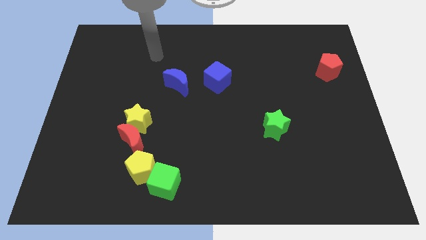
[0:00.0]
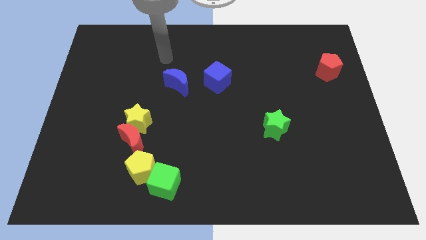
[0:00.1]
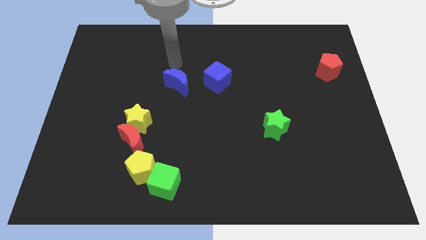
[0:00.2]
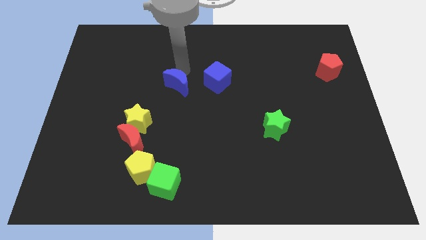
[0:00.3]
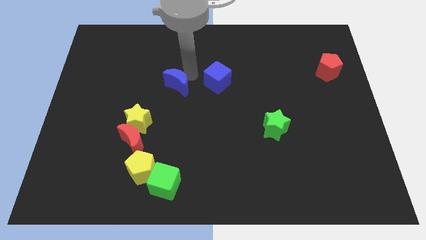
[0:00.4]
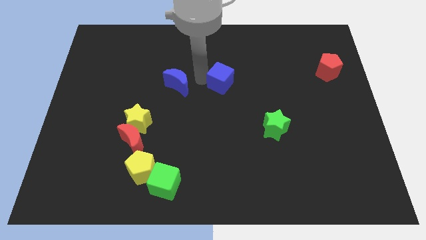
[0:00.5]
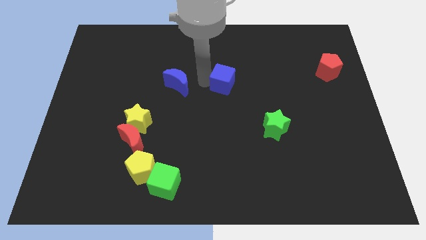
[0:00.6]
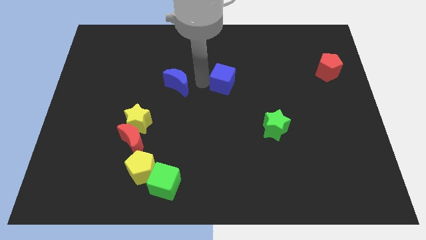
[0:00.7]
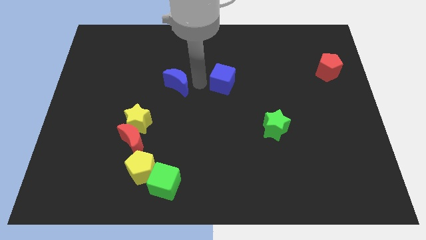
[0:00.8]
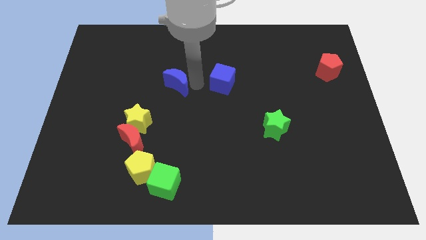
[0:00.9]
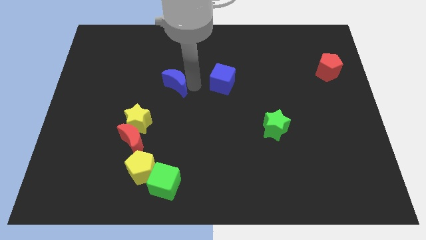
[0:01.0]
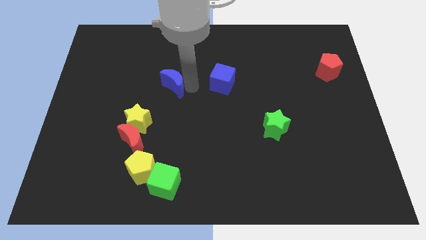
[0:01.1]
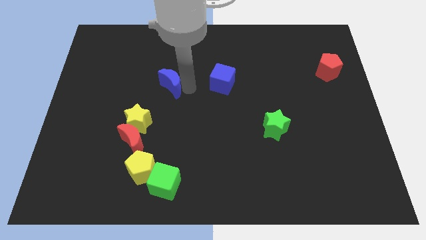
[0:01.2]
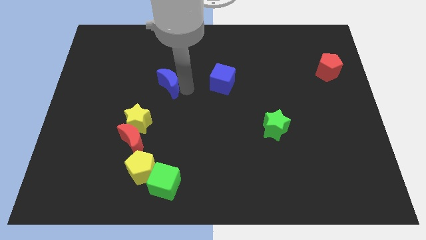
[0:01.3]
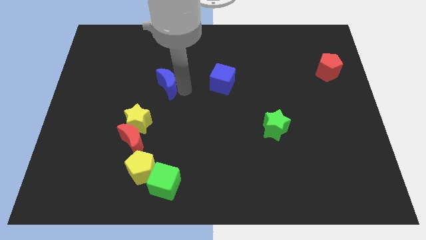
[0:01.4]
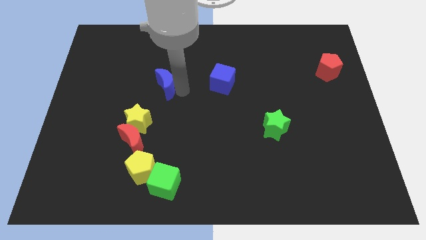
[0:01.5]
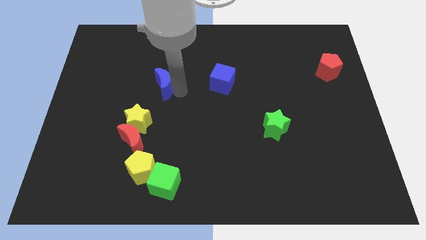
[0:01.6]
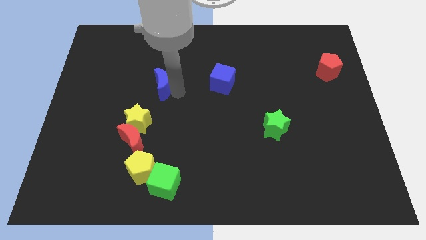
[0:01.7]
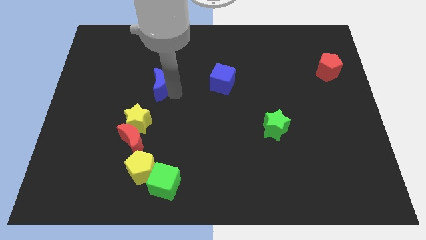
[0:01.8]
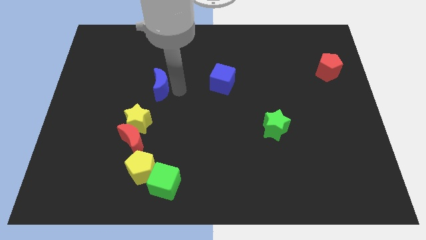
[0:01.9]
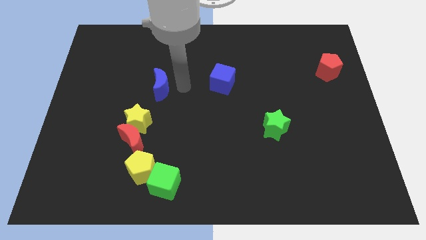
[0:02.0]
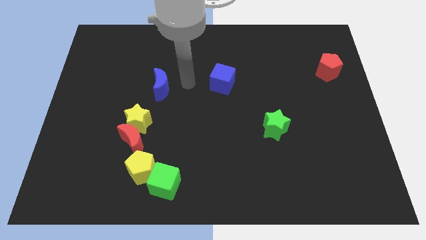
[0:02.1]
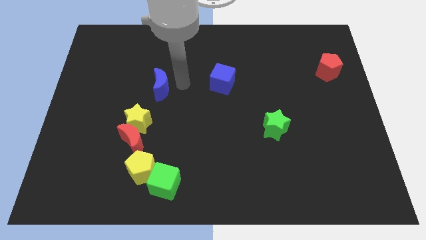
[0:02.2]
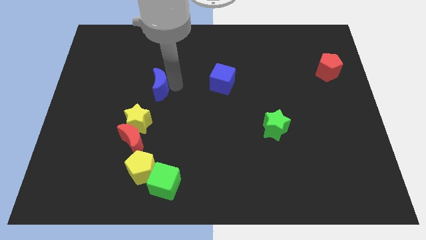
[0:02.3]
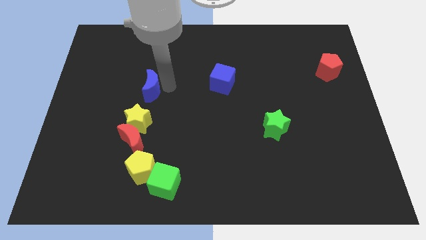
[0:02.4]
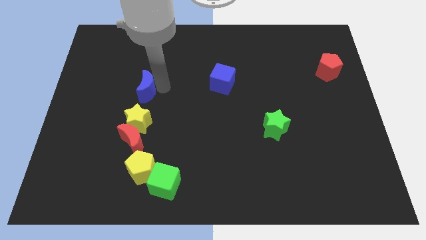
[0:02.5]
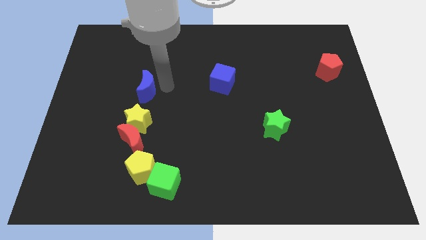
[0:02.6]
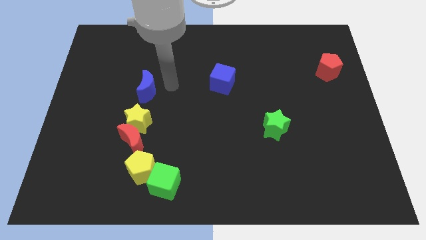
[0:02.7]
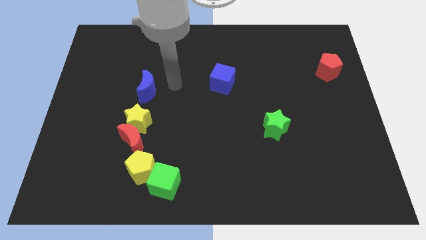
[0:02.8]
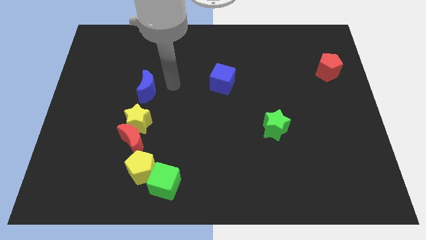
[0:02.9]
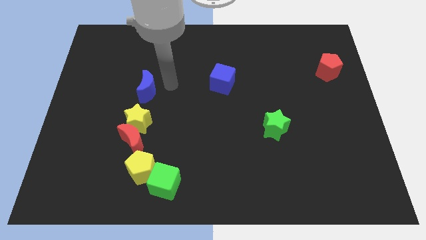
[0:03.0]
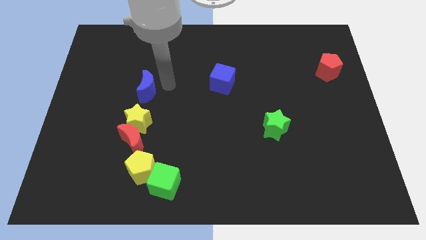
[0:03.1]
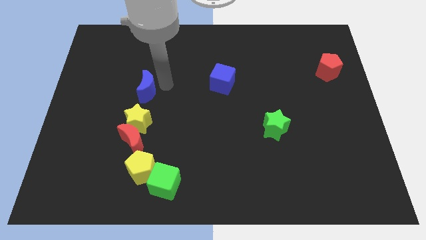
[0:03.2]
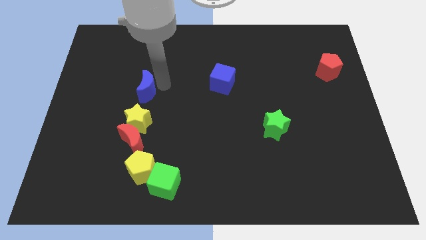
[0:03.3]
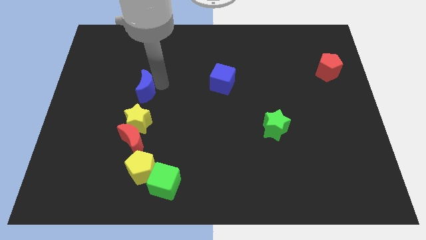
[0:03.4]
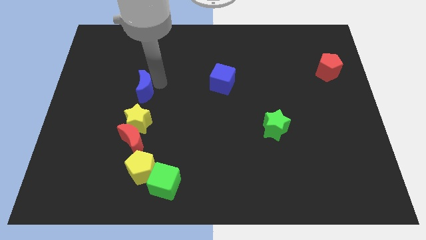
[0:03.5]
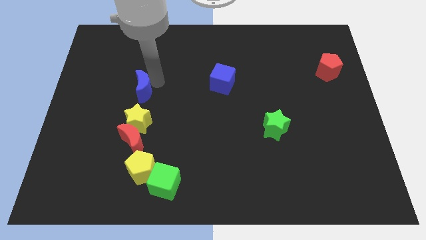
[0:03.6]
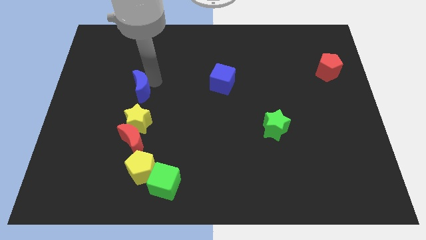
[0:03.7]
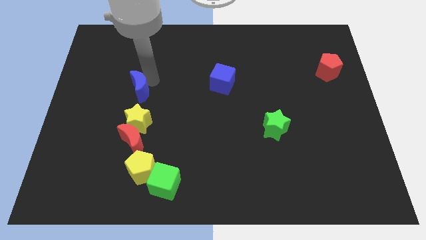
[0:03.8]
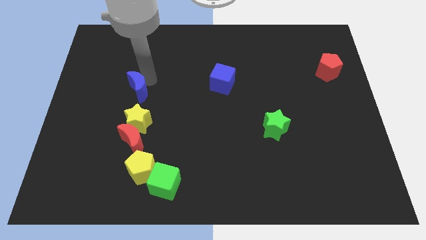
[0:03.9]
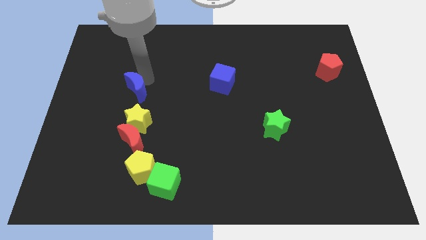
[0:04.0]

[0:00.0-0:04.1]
slide the blue moon slightly downwards and to the left diagonally

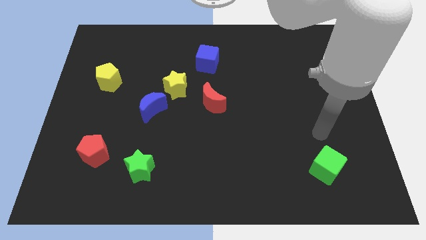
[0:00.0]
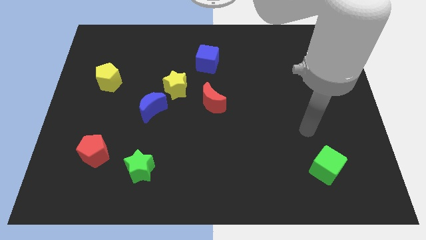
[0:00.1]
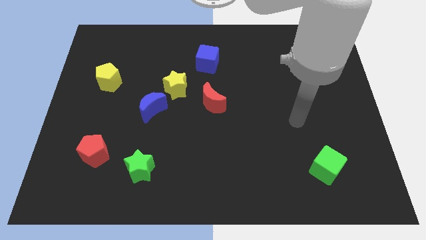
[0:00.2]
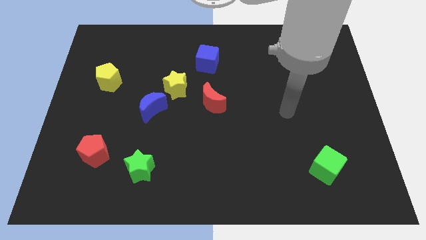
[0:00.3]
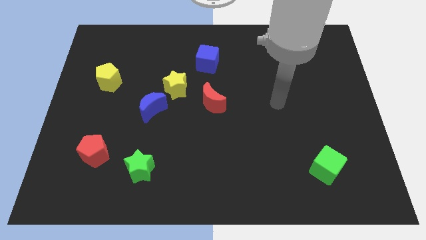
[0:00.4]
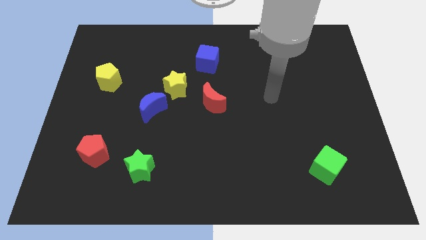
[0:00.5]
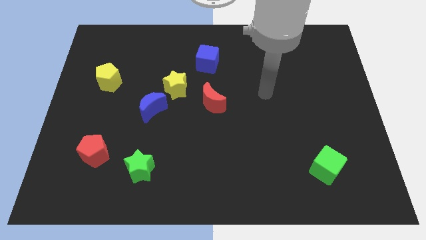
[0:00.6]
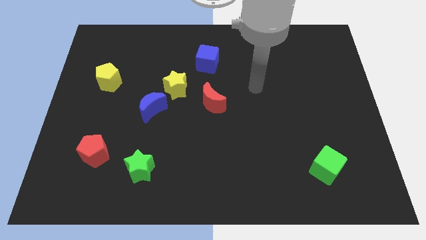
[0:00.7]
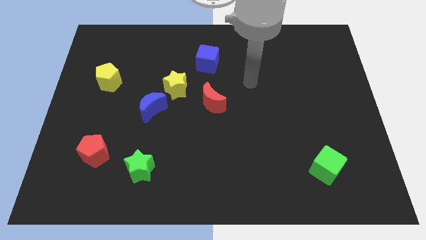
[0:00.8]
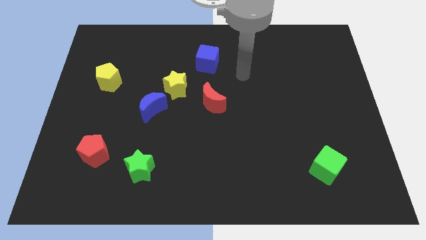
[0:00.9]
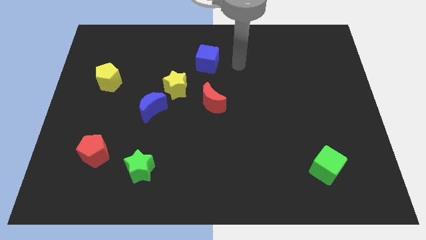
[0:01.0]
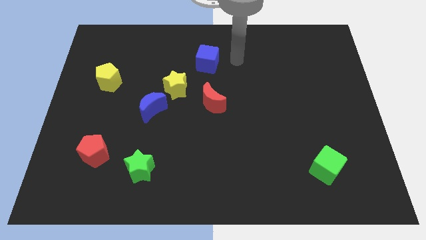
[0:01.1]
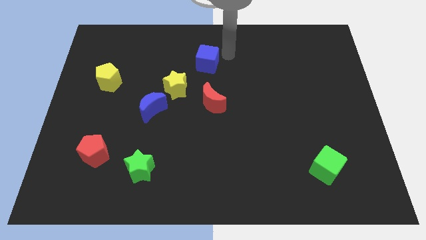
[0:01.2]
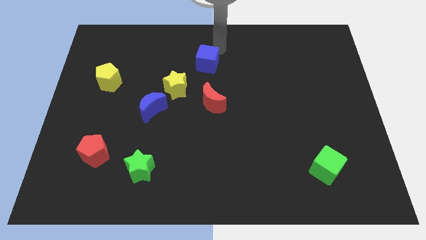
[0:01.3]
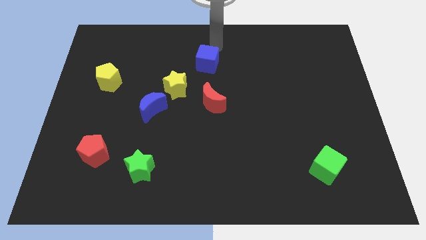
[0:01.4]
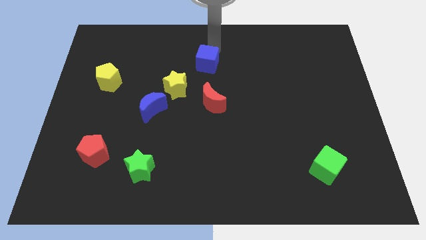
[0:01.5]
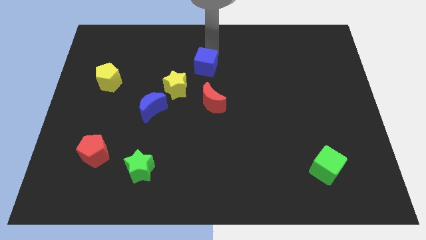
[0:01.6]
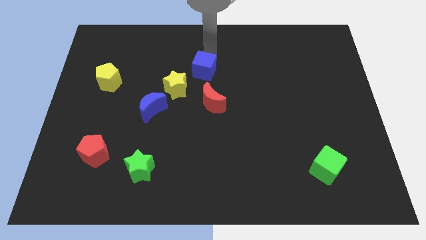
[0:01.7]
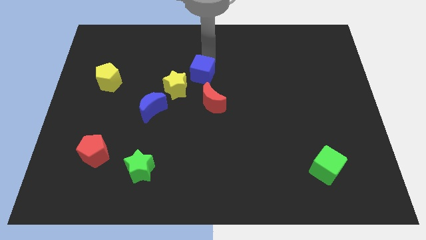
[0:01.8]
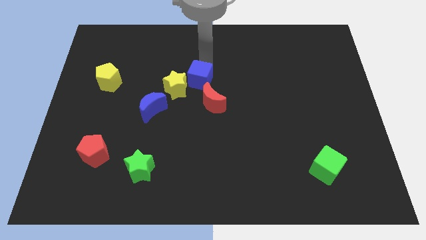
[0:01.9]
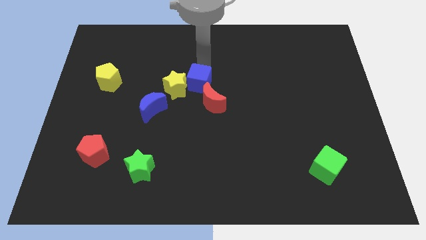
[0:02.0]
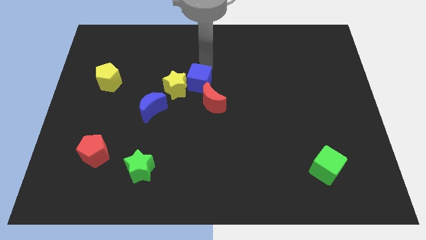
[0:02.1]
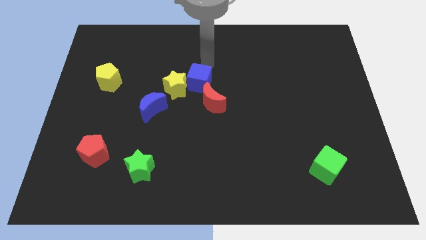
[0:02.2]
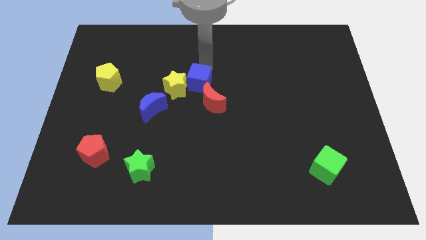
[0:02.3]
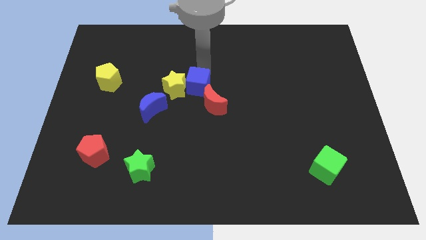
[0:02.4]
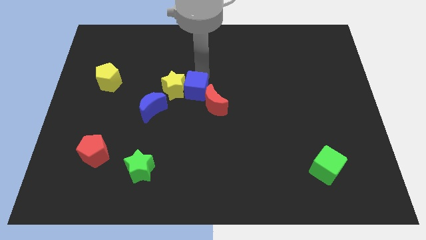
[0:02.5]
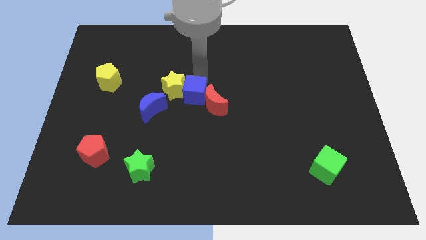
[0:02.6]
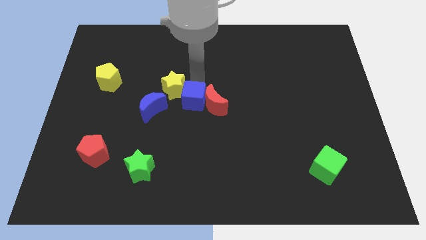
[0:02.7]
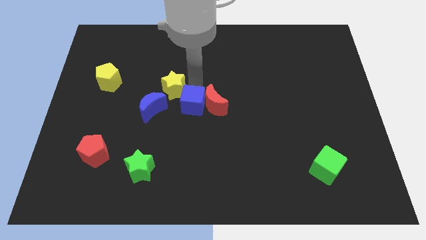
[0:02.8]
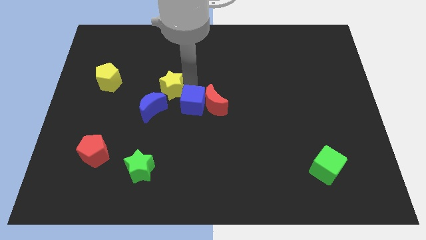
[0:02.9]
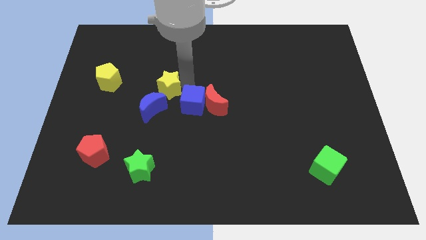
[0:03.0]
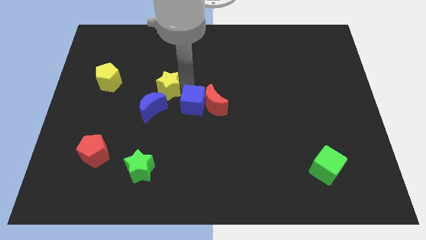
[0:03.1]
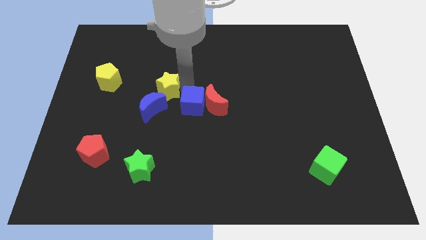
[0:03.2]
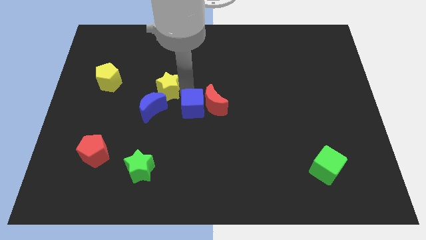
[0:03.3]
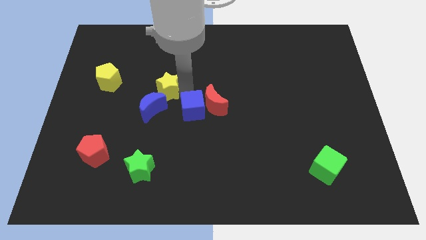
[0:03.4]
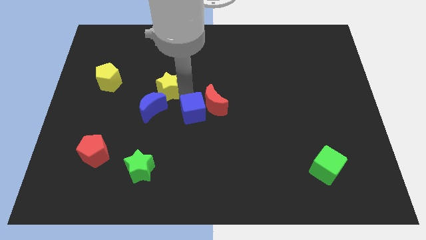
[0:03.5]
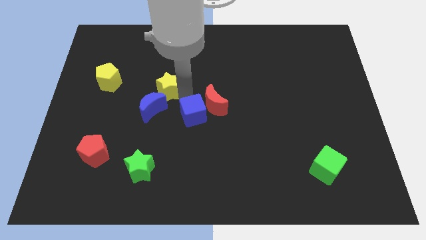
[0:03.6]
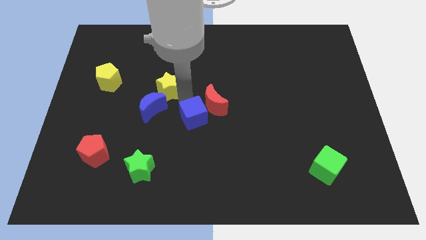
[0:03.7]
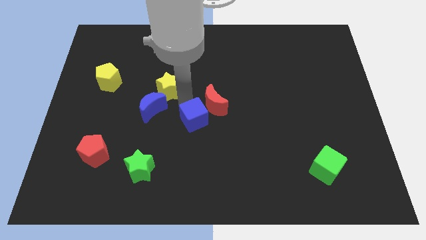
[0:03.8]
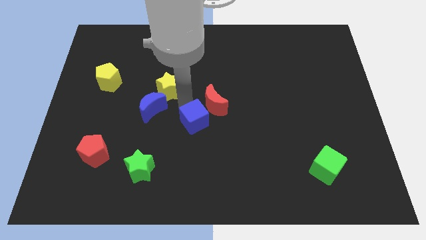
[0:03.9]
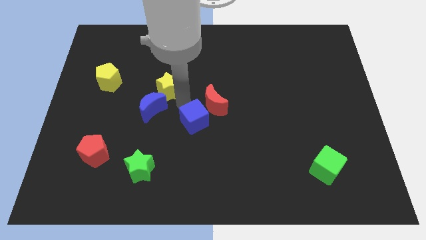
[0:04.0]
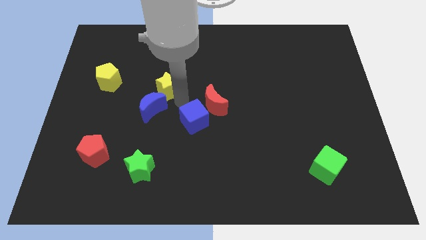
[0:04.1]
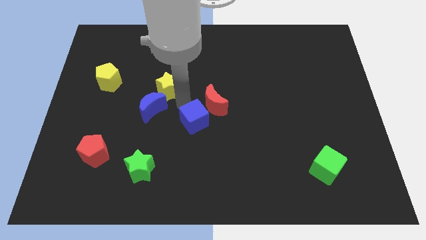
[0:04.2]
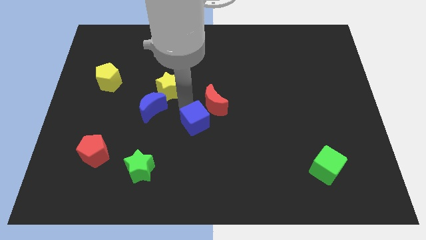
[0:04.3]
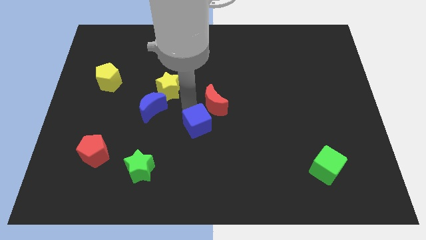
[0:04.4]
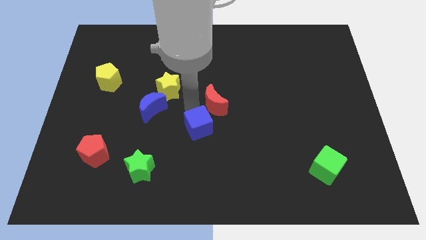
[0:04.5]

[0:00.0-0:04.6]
push the blue cube downwards
